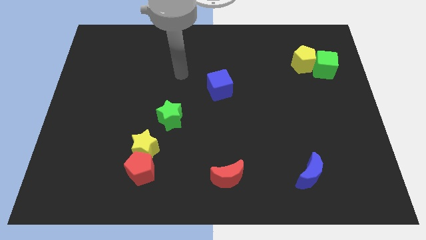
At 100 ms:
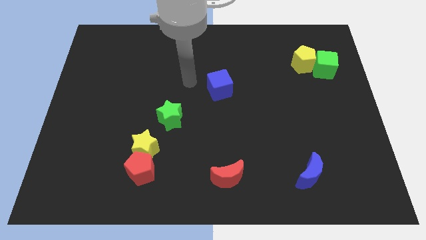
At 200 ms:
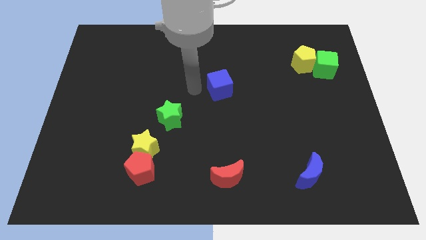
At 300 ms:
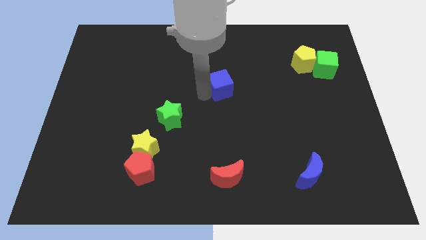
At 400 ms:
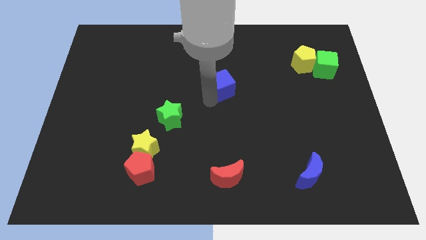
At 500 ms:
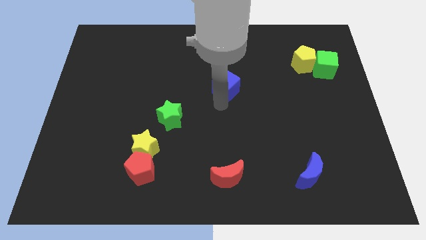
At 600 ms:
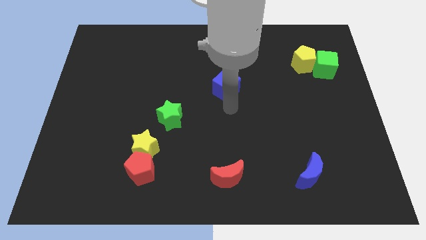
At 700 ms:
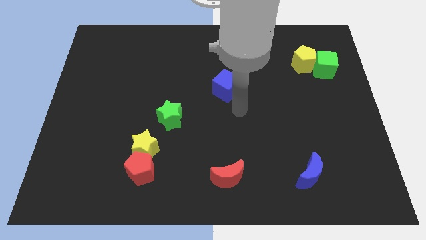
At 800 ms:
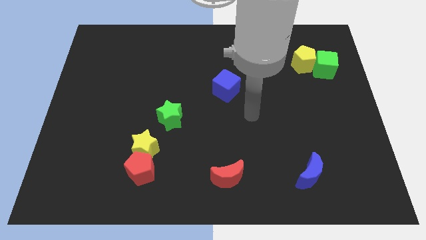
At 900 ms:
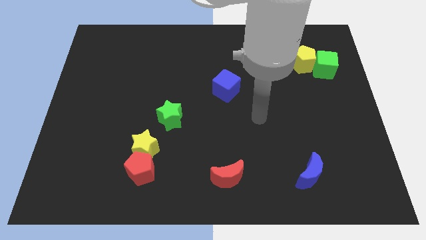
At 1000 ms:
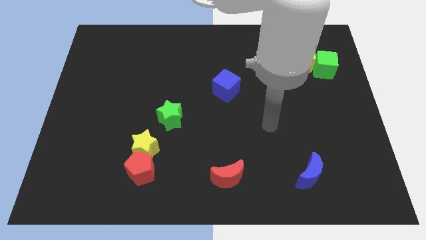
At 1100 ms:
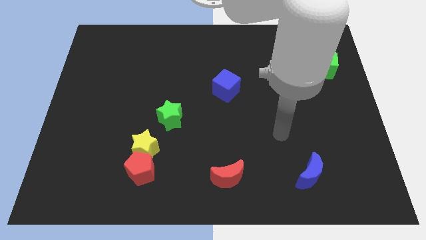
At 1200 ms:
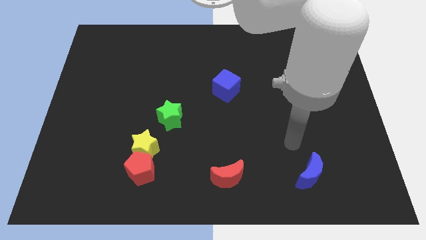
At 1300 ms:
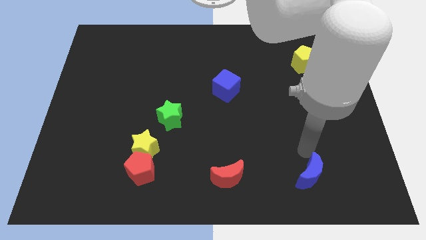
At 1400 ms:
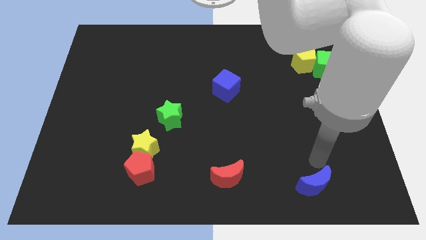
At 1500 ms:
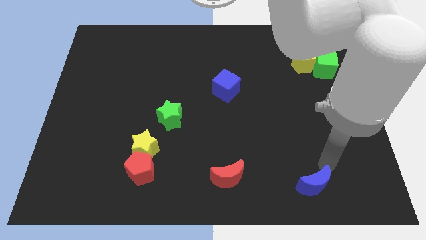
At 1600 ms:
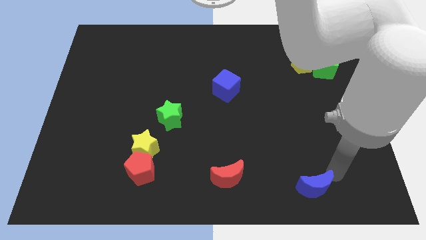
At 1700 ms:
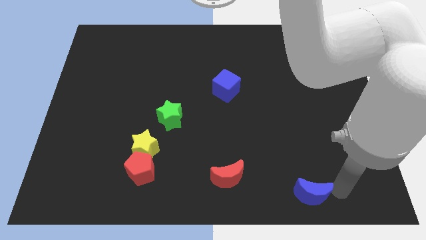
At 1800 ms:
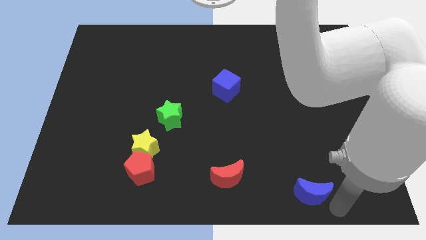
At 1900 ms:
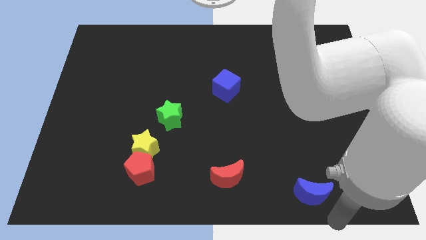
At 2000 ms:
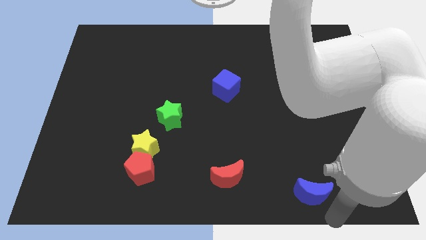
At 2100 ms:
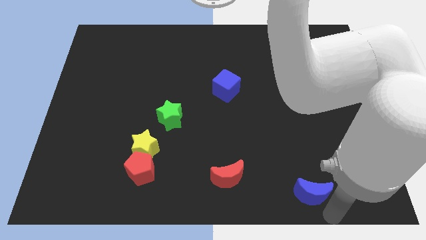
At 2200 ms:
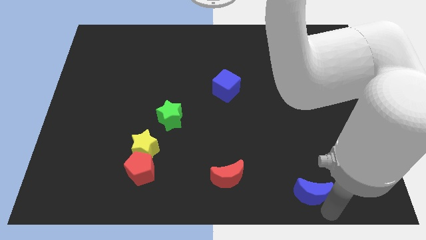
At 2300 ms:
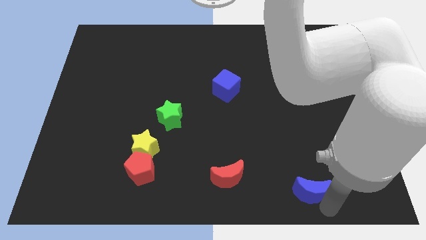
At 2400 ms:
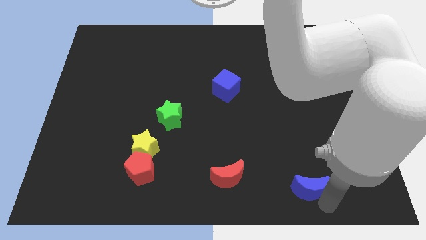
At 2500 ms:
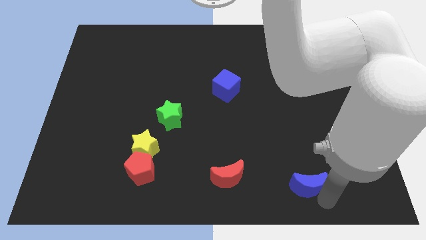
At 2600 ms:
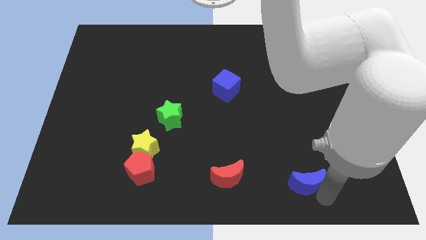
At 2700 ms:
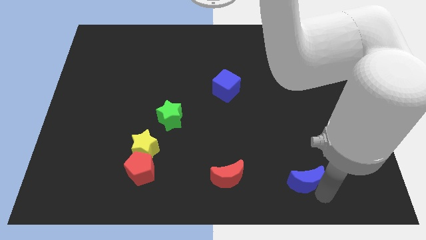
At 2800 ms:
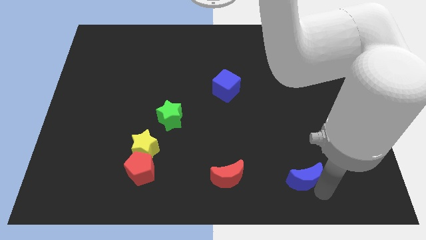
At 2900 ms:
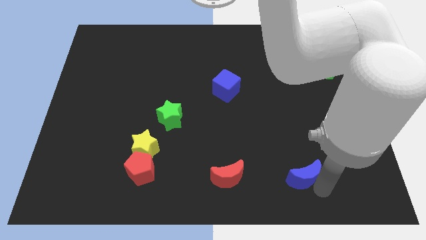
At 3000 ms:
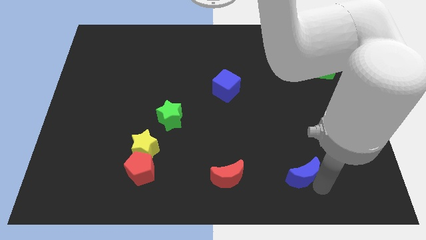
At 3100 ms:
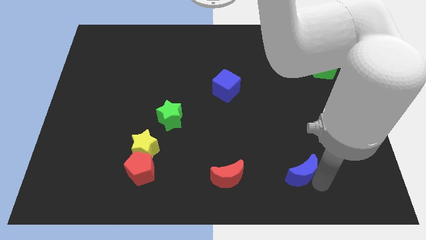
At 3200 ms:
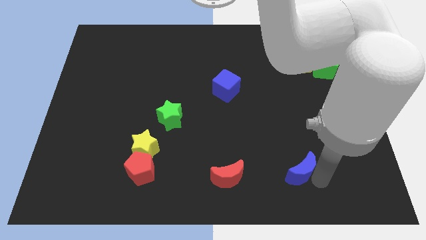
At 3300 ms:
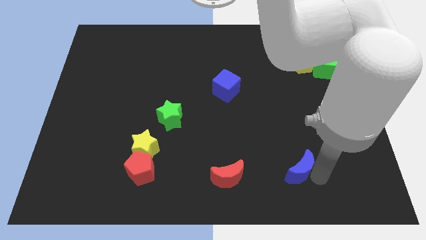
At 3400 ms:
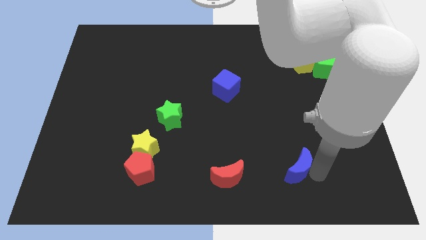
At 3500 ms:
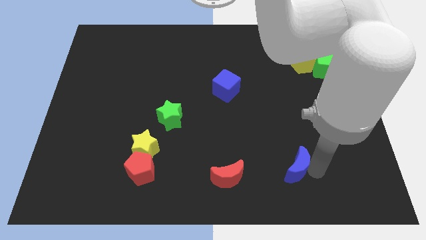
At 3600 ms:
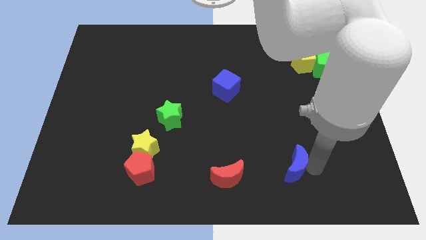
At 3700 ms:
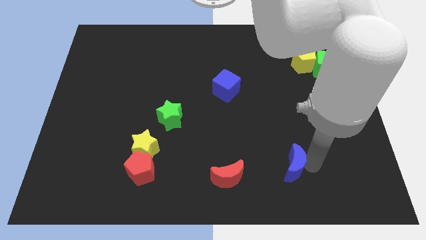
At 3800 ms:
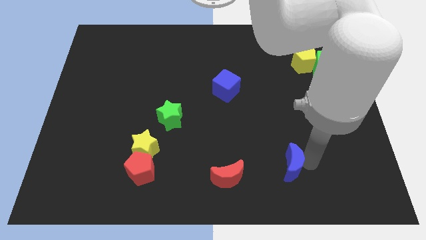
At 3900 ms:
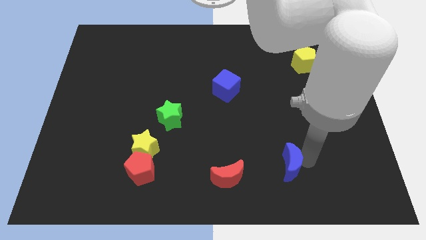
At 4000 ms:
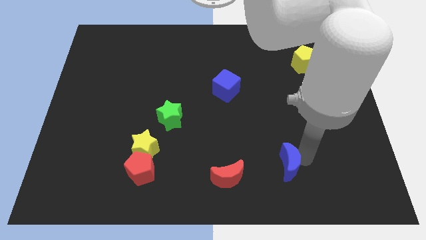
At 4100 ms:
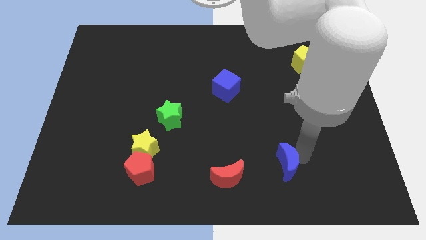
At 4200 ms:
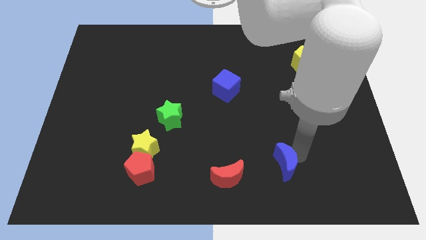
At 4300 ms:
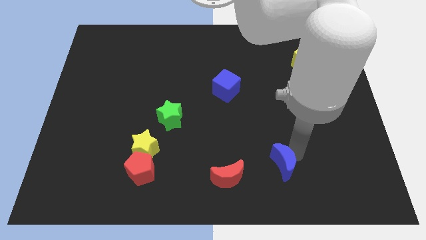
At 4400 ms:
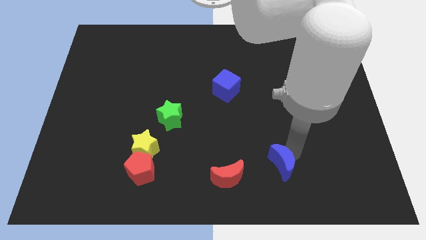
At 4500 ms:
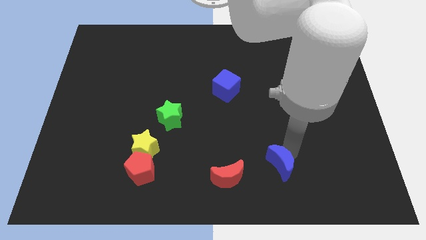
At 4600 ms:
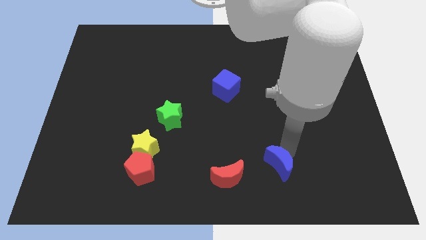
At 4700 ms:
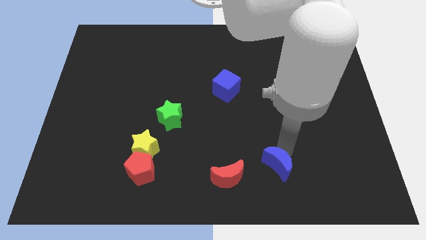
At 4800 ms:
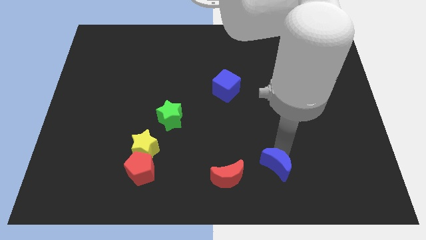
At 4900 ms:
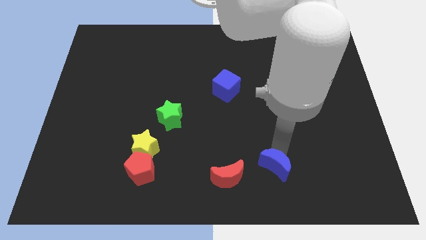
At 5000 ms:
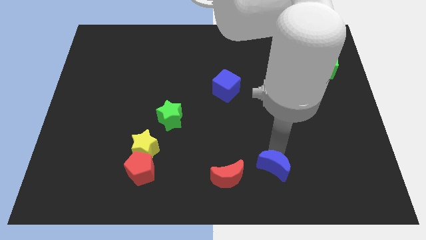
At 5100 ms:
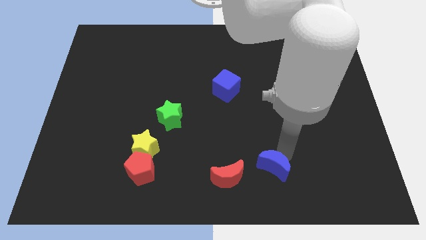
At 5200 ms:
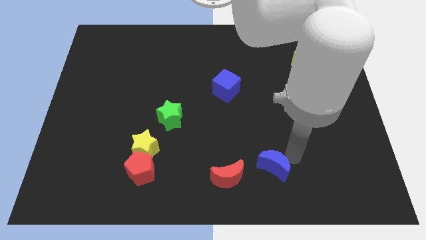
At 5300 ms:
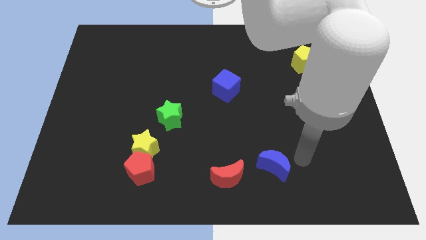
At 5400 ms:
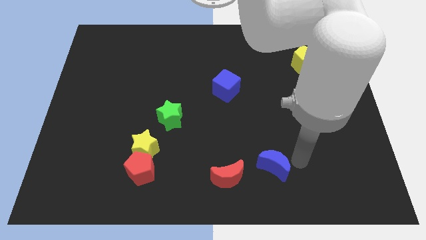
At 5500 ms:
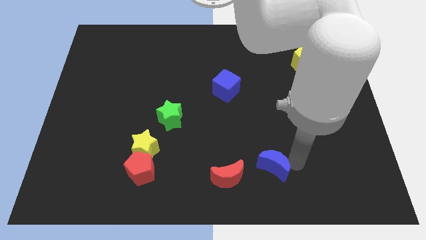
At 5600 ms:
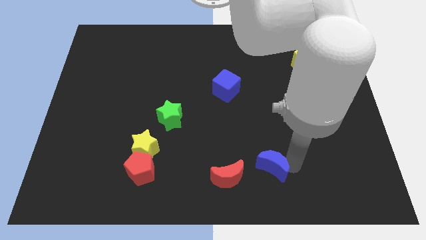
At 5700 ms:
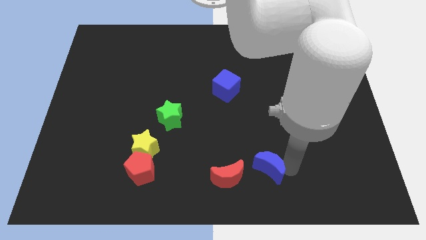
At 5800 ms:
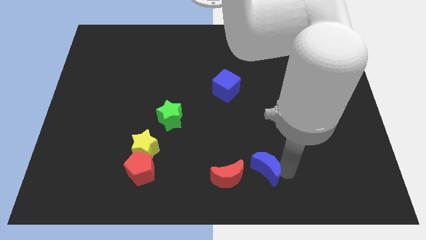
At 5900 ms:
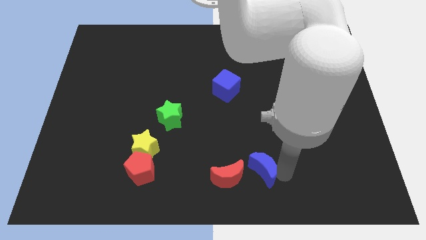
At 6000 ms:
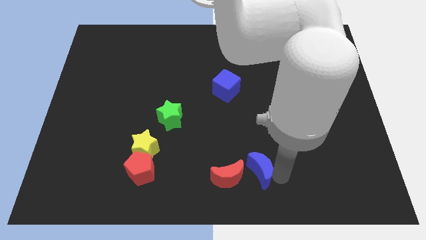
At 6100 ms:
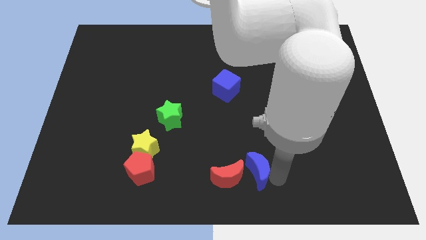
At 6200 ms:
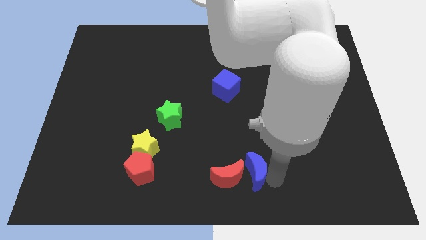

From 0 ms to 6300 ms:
put the blue moon close to the red moon

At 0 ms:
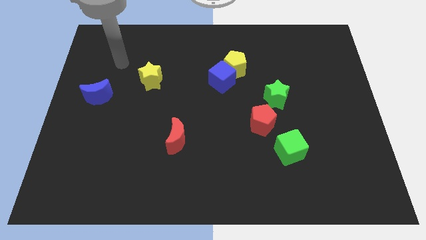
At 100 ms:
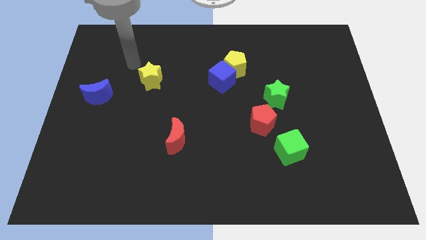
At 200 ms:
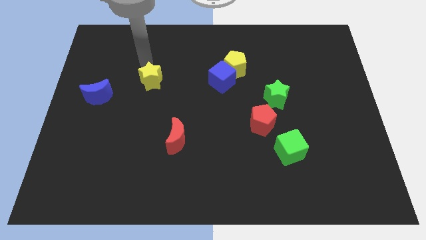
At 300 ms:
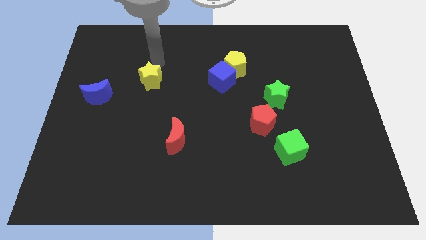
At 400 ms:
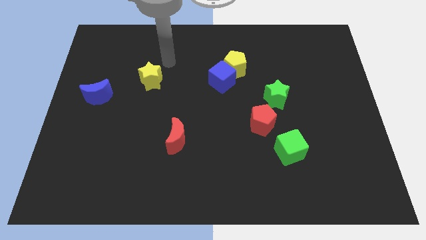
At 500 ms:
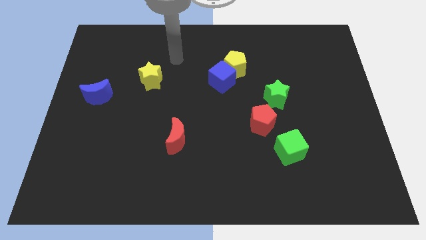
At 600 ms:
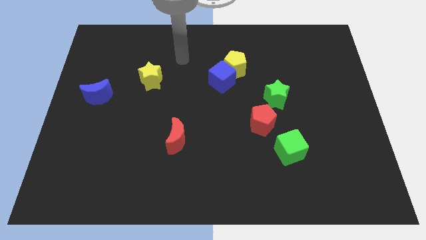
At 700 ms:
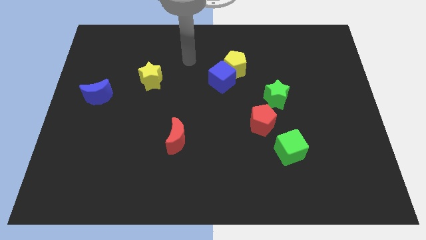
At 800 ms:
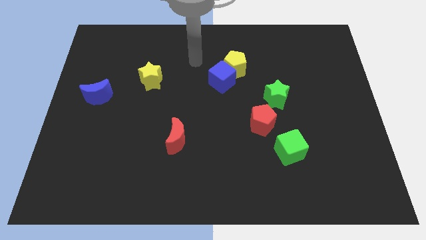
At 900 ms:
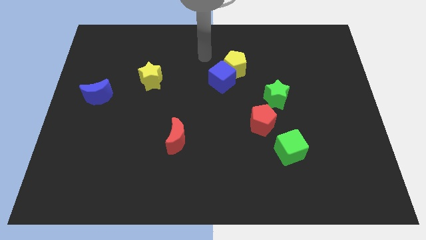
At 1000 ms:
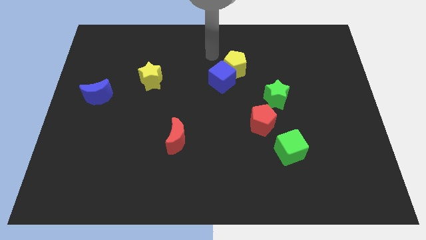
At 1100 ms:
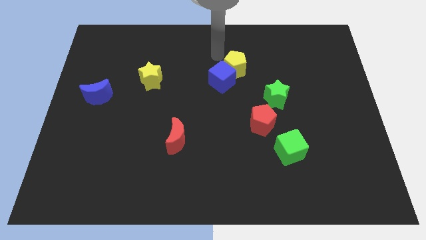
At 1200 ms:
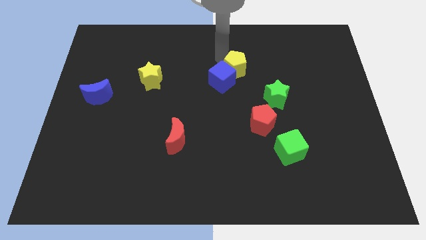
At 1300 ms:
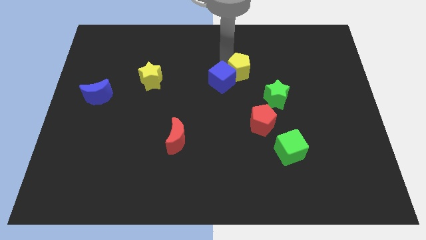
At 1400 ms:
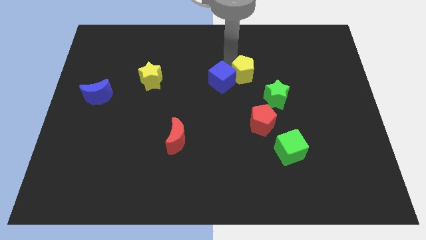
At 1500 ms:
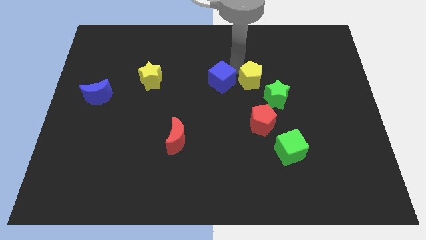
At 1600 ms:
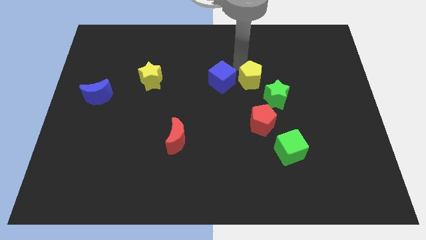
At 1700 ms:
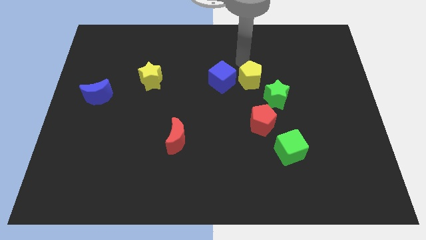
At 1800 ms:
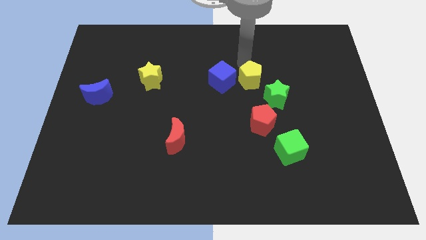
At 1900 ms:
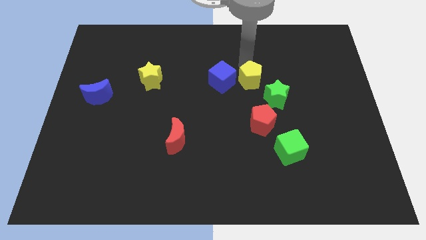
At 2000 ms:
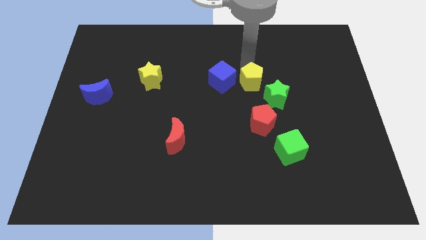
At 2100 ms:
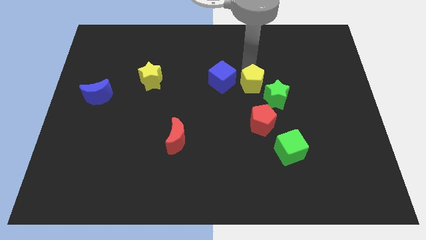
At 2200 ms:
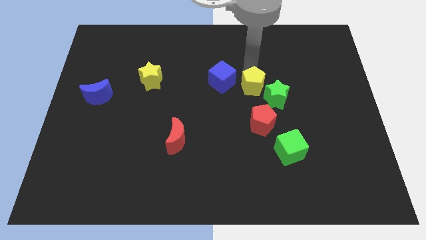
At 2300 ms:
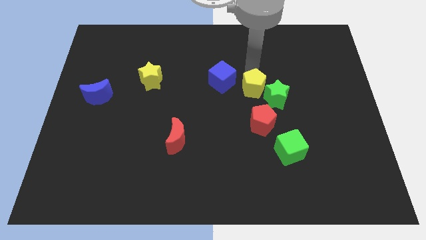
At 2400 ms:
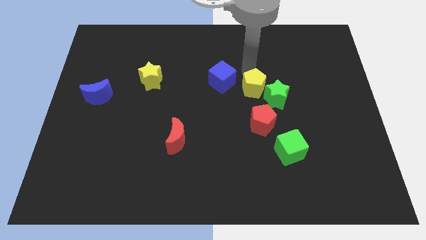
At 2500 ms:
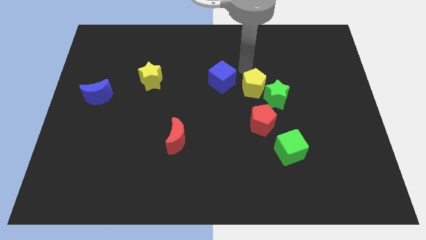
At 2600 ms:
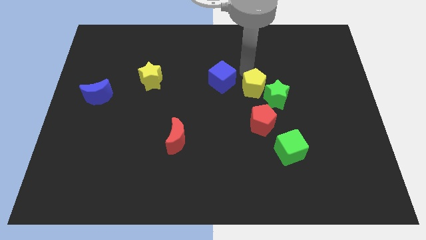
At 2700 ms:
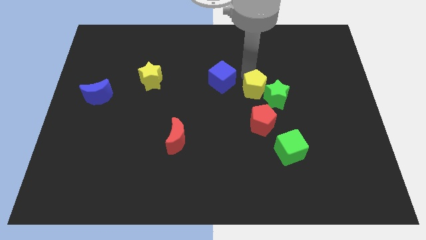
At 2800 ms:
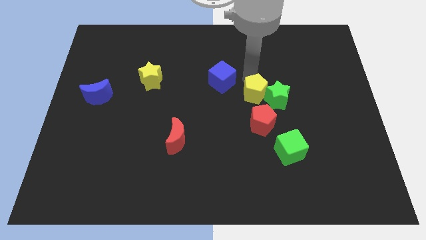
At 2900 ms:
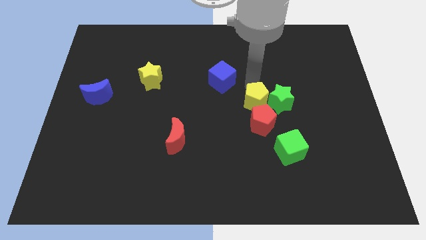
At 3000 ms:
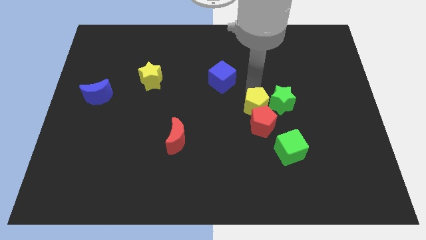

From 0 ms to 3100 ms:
push the yellow pentagon next to the red pentagon
